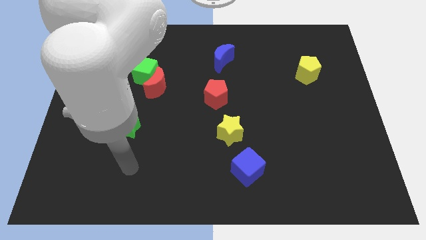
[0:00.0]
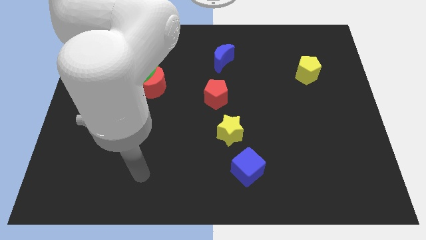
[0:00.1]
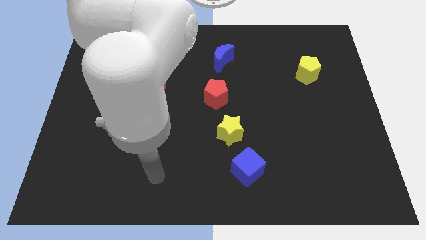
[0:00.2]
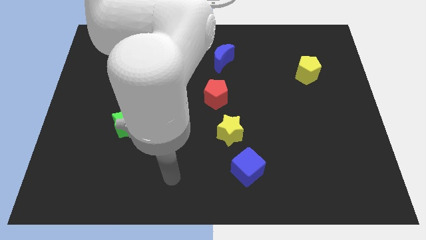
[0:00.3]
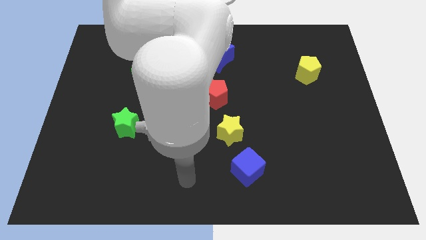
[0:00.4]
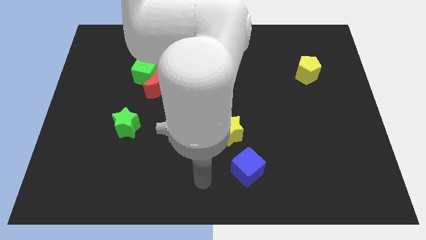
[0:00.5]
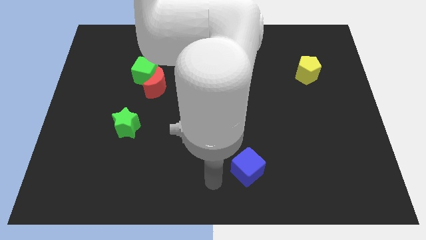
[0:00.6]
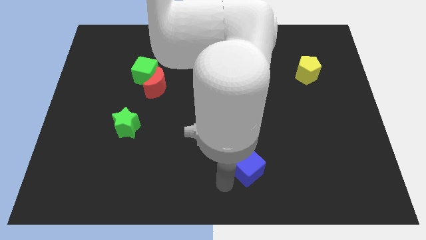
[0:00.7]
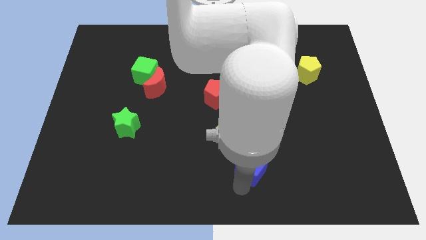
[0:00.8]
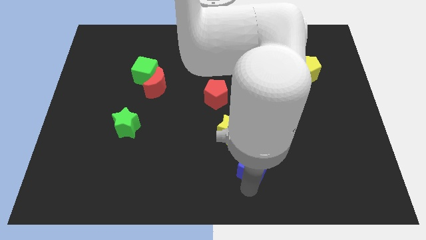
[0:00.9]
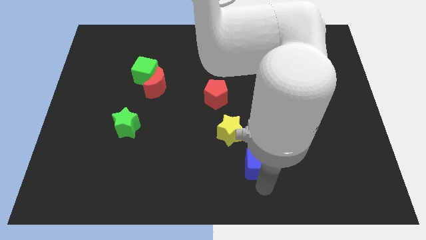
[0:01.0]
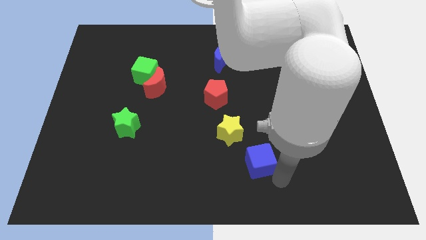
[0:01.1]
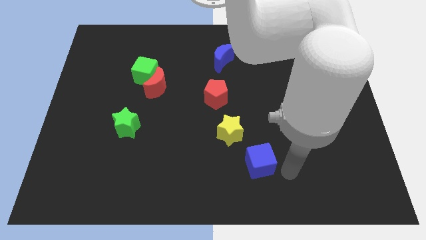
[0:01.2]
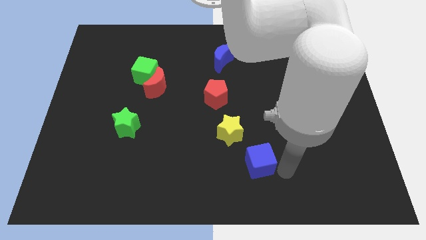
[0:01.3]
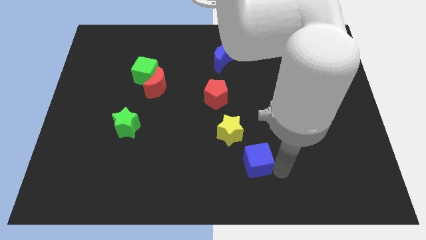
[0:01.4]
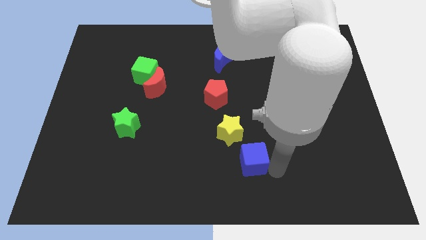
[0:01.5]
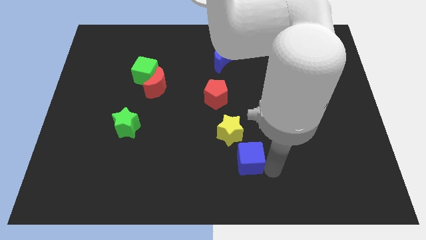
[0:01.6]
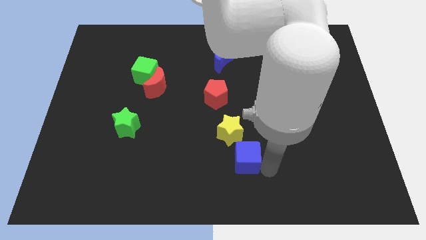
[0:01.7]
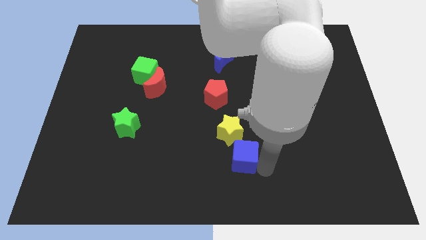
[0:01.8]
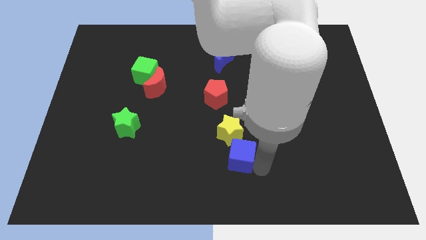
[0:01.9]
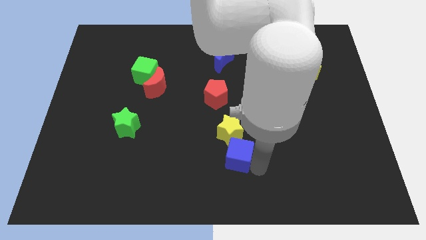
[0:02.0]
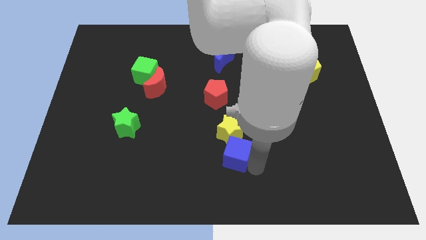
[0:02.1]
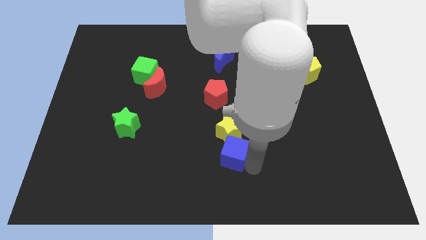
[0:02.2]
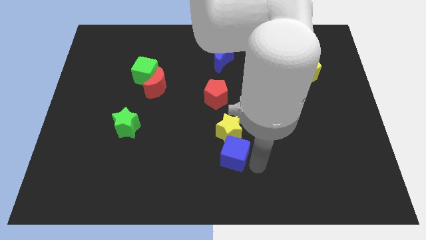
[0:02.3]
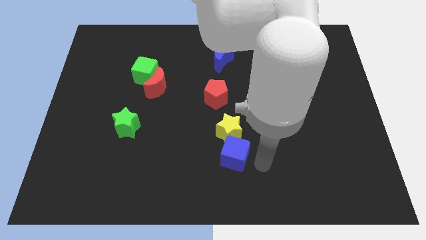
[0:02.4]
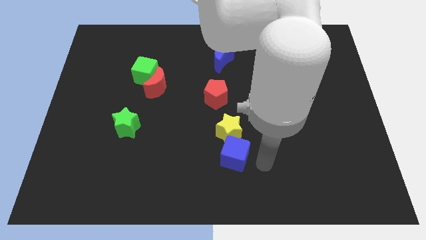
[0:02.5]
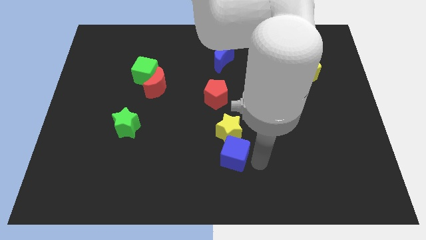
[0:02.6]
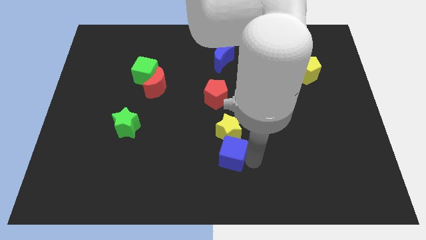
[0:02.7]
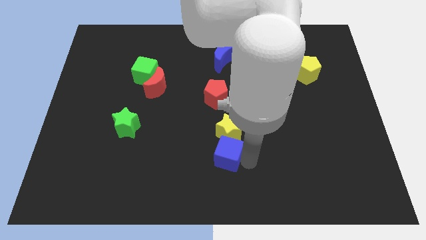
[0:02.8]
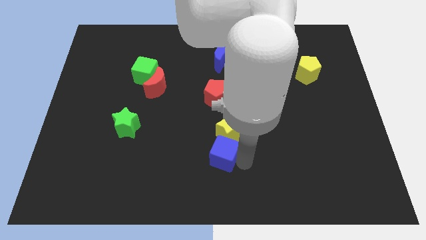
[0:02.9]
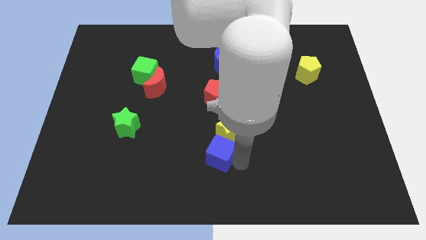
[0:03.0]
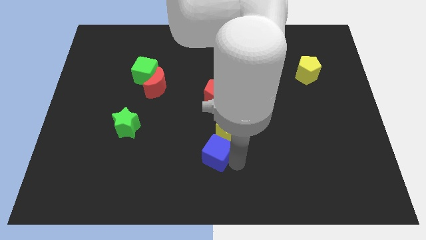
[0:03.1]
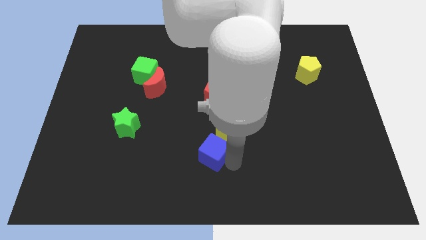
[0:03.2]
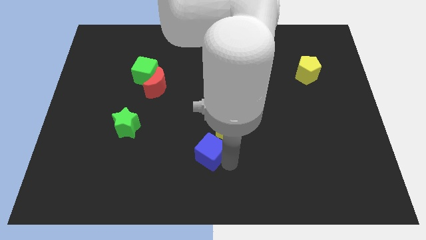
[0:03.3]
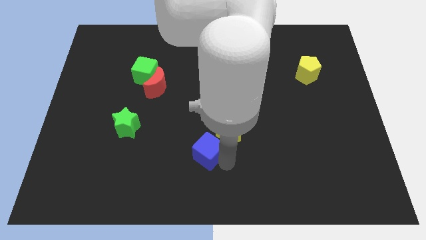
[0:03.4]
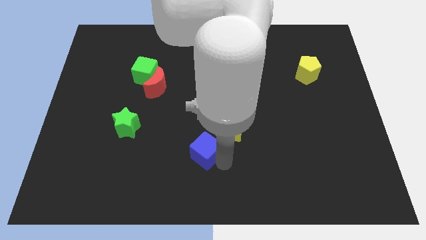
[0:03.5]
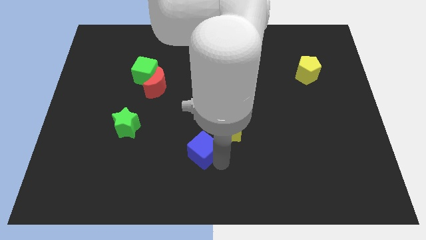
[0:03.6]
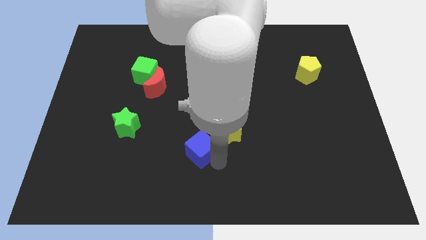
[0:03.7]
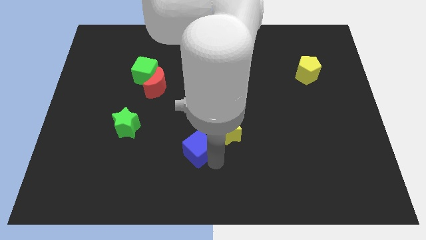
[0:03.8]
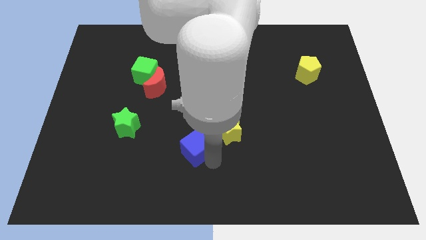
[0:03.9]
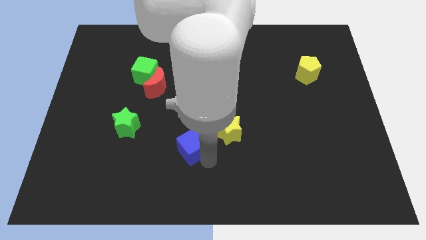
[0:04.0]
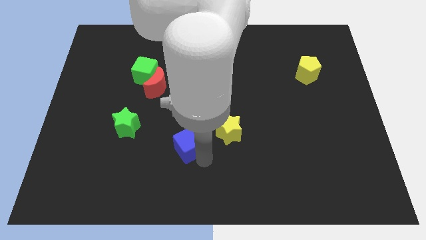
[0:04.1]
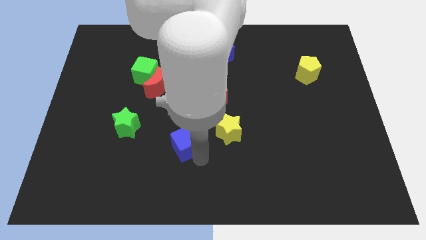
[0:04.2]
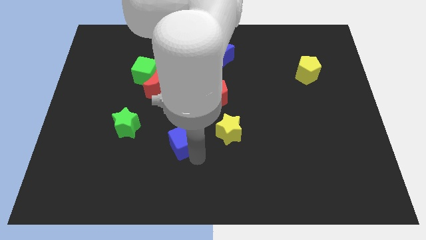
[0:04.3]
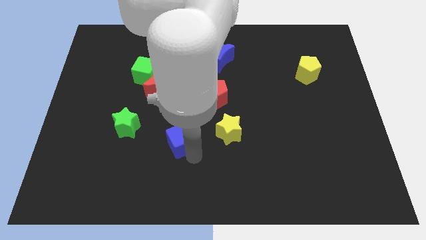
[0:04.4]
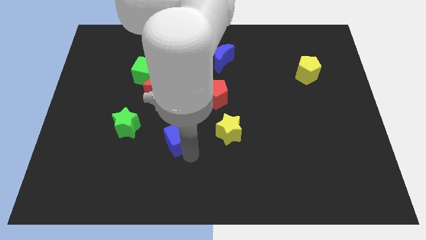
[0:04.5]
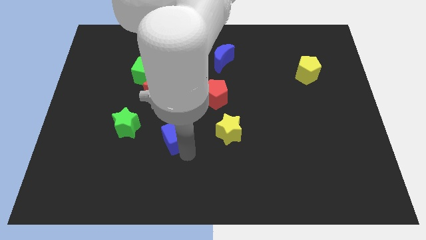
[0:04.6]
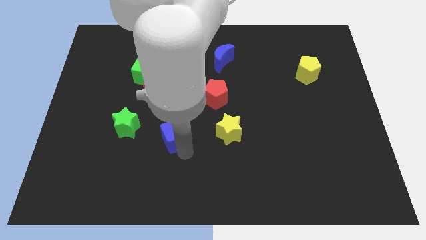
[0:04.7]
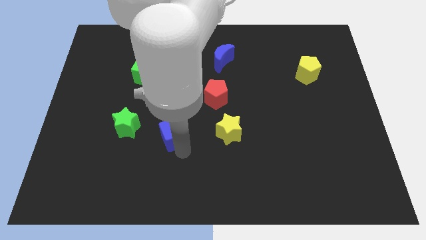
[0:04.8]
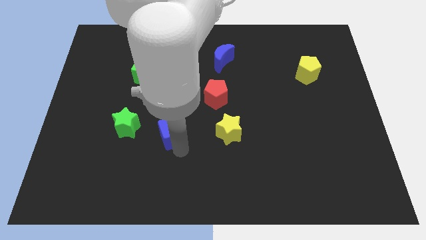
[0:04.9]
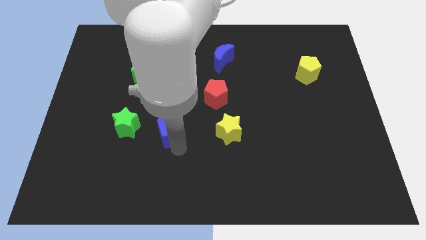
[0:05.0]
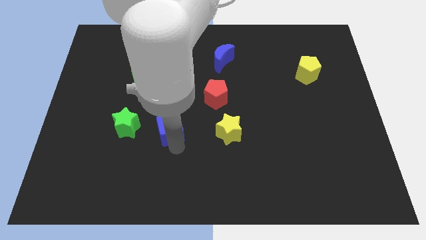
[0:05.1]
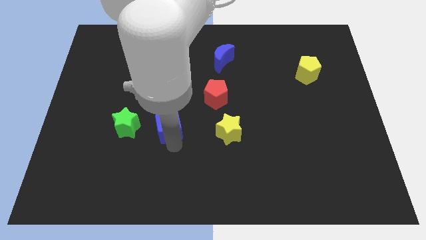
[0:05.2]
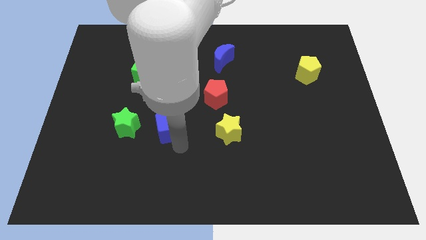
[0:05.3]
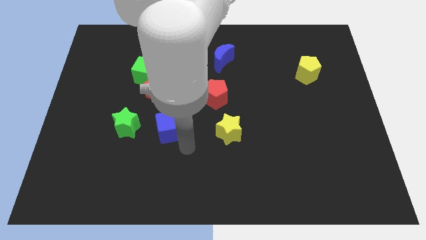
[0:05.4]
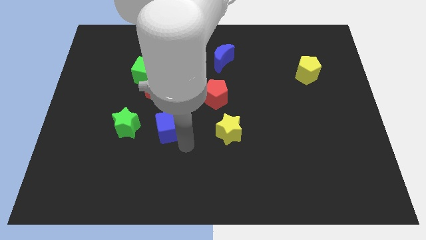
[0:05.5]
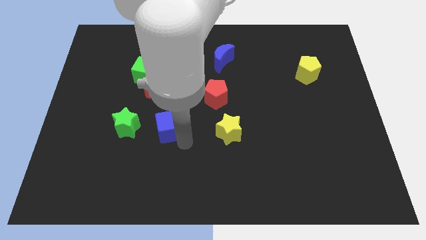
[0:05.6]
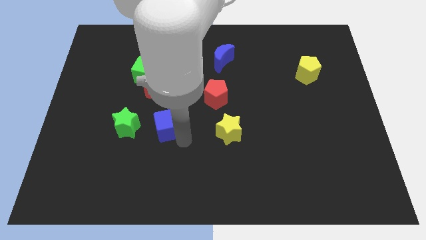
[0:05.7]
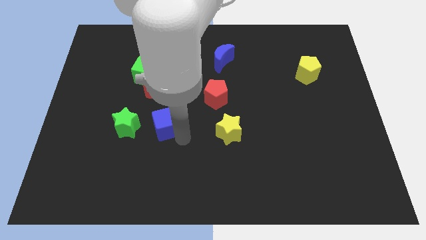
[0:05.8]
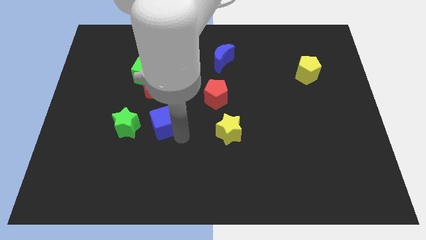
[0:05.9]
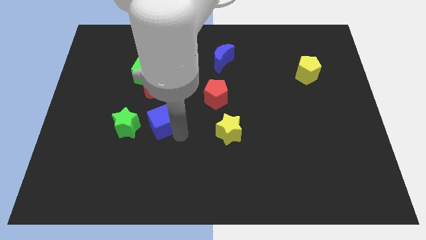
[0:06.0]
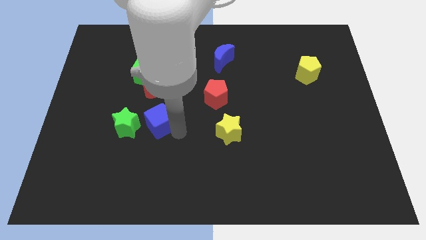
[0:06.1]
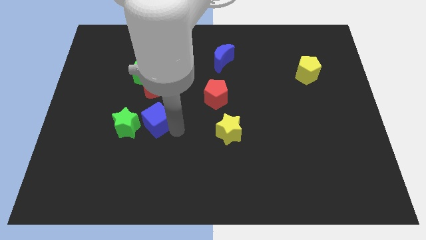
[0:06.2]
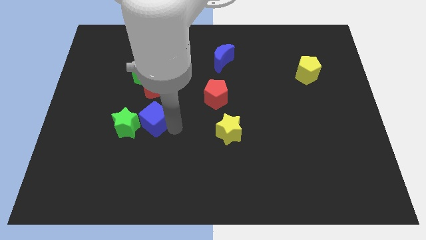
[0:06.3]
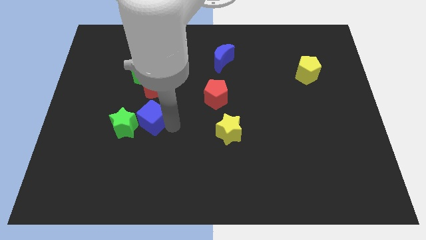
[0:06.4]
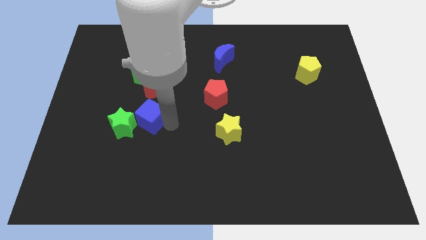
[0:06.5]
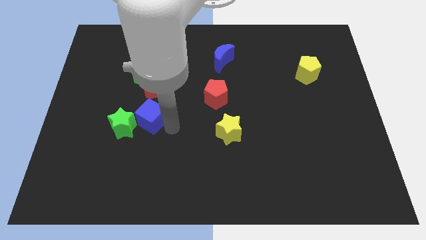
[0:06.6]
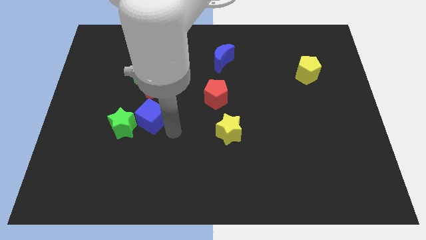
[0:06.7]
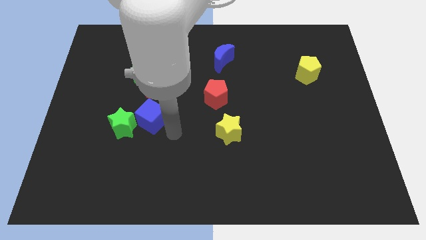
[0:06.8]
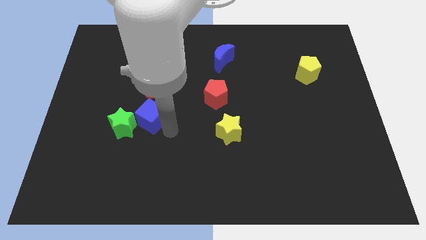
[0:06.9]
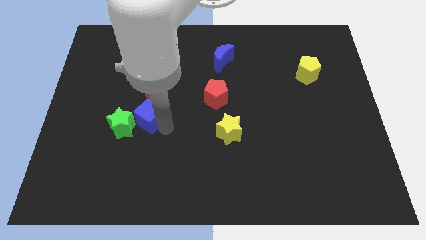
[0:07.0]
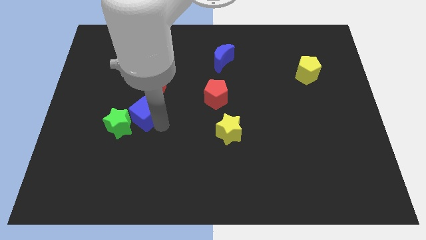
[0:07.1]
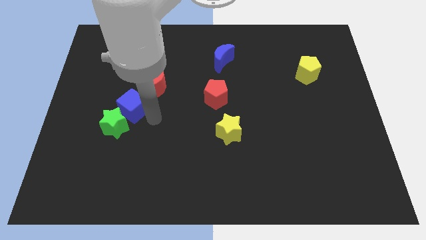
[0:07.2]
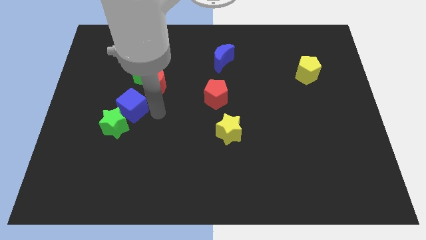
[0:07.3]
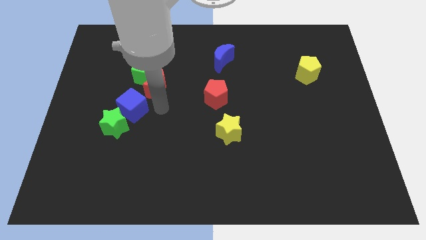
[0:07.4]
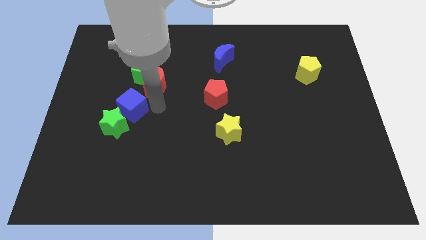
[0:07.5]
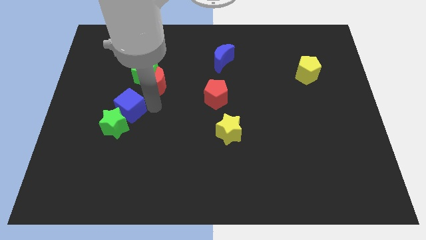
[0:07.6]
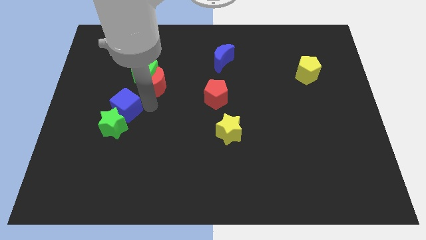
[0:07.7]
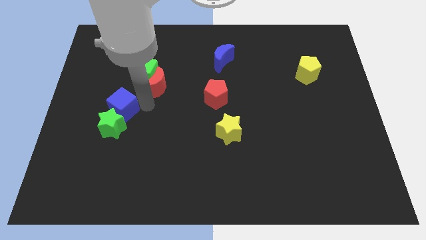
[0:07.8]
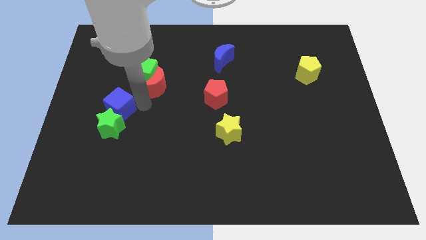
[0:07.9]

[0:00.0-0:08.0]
push the blue cube diagonally up and to the left of the green star
